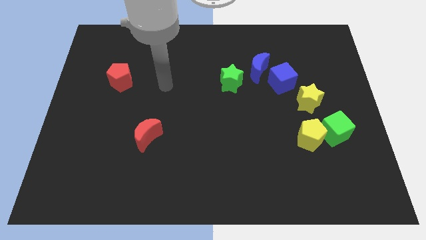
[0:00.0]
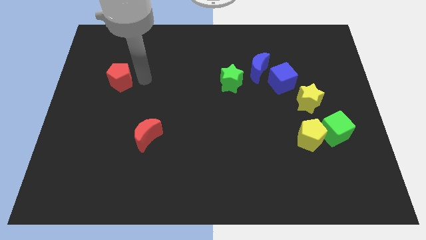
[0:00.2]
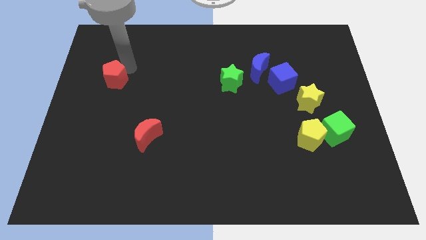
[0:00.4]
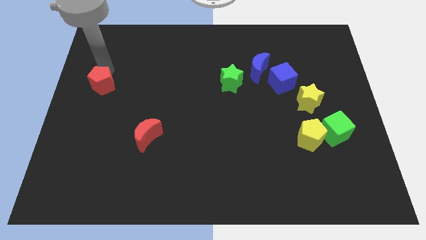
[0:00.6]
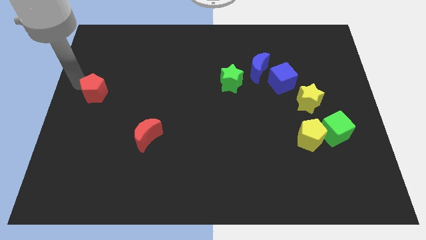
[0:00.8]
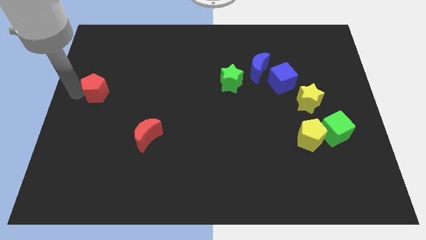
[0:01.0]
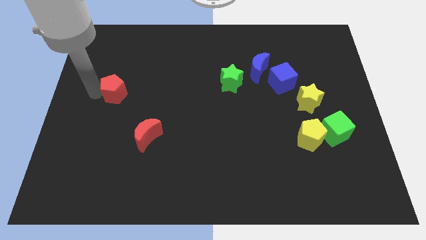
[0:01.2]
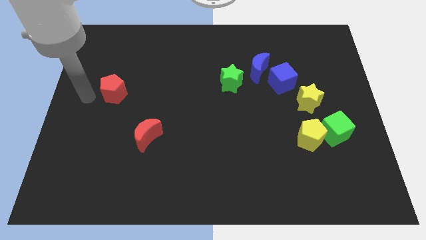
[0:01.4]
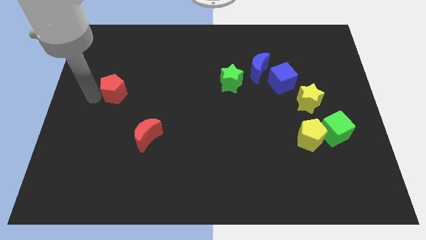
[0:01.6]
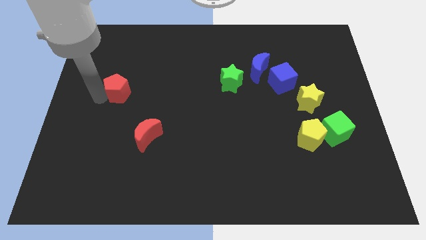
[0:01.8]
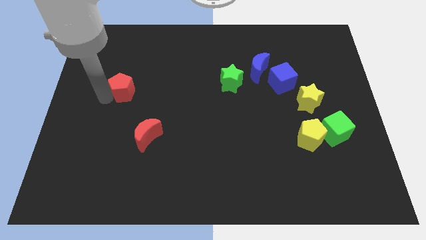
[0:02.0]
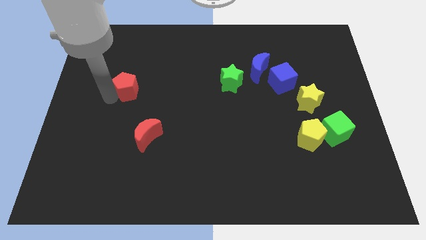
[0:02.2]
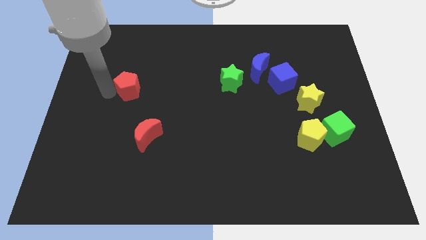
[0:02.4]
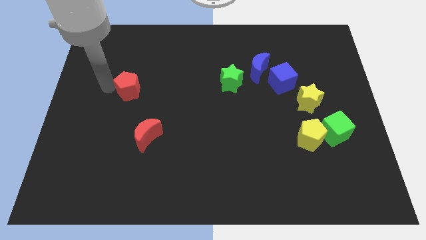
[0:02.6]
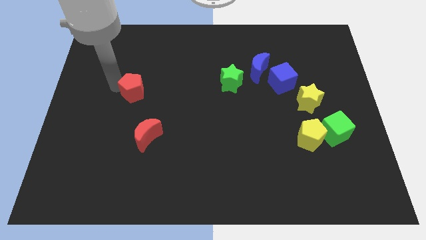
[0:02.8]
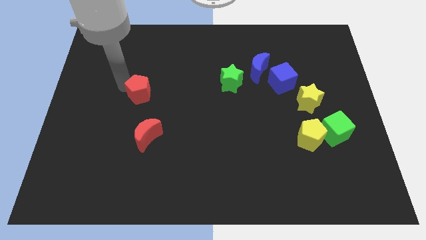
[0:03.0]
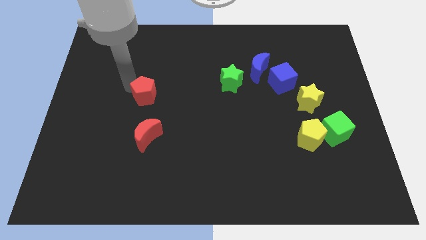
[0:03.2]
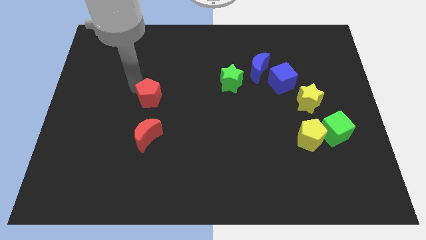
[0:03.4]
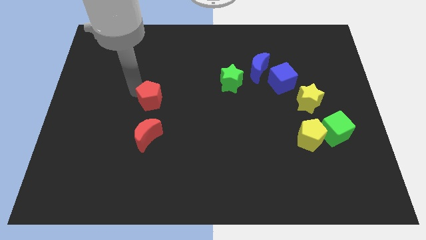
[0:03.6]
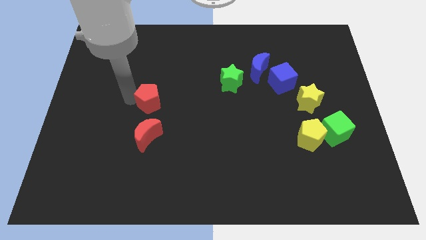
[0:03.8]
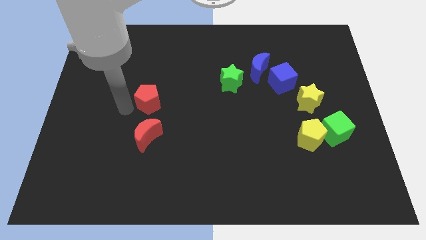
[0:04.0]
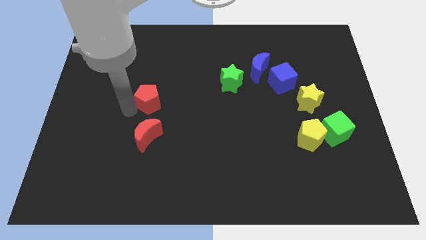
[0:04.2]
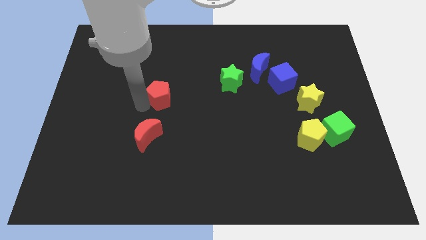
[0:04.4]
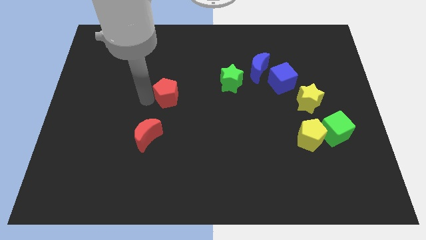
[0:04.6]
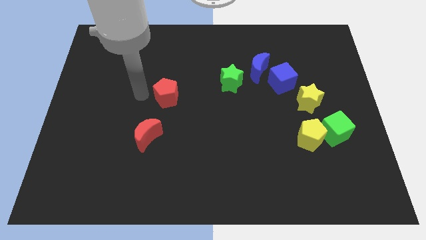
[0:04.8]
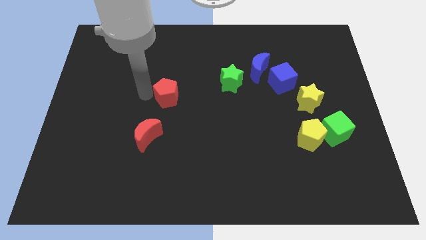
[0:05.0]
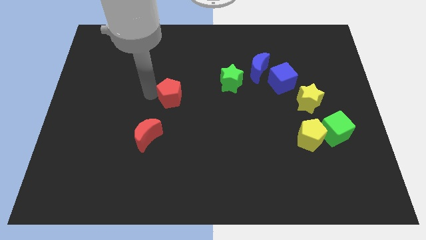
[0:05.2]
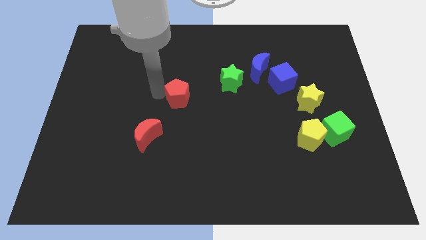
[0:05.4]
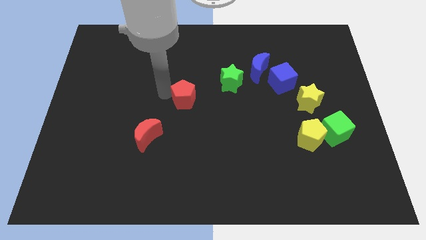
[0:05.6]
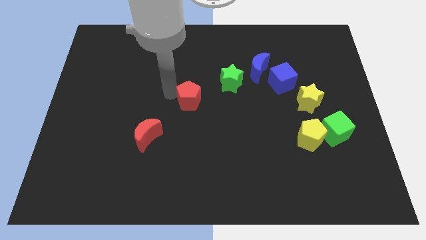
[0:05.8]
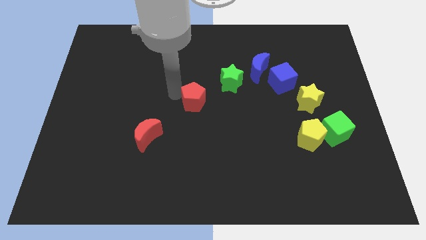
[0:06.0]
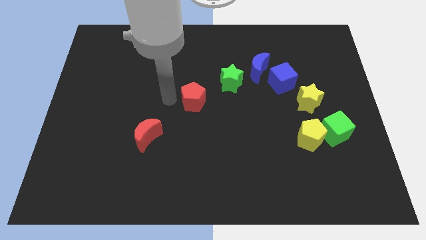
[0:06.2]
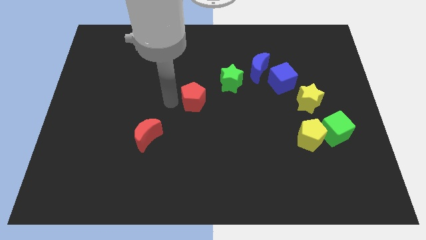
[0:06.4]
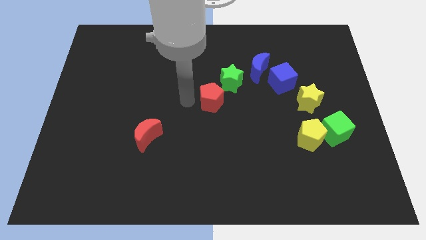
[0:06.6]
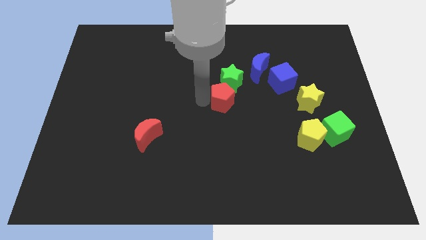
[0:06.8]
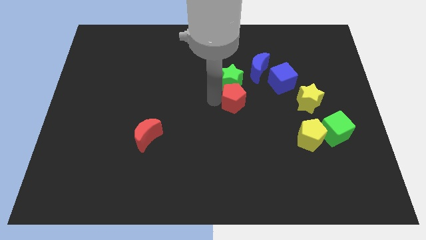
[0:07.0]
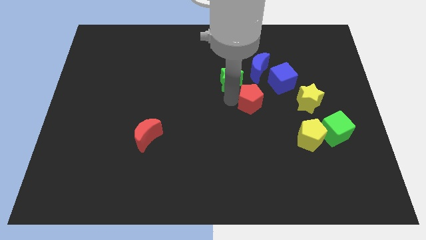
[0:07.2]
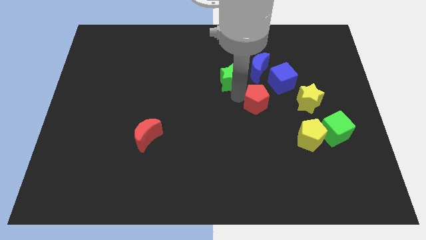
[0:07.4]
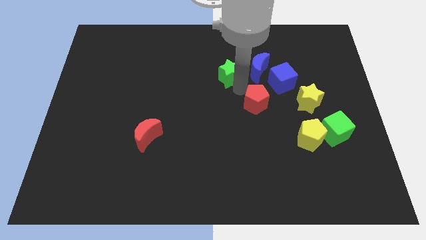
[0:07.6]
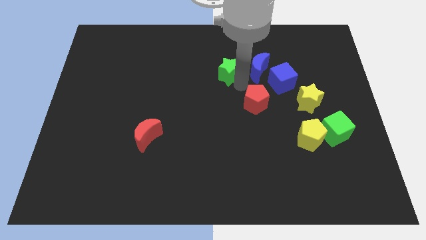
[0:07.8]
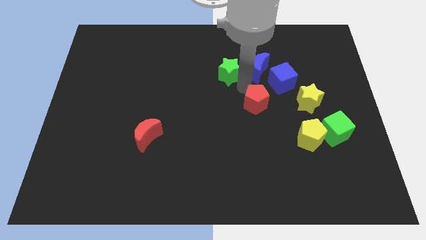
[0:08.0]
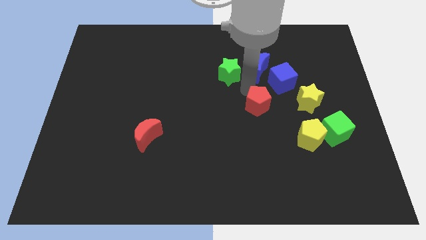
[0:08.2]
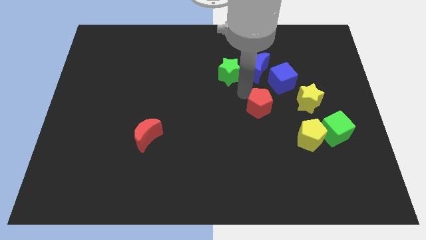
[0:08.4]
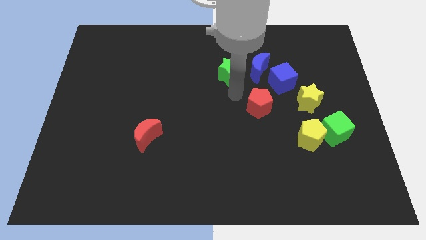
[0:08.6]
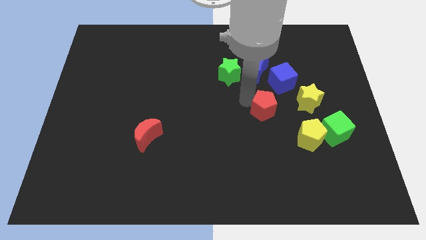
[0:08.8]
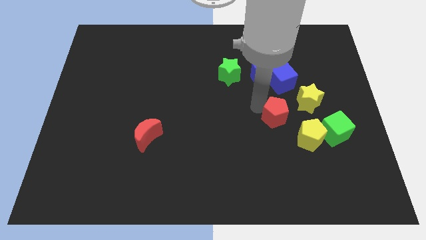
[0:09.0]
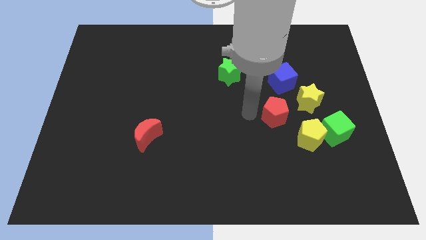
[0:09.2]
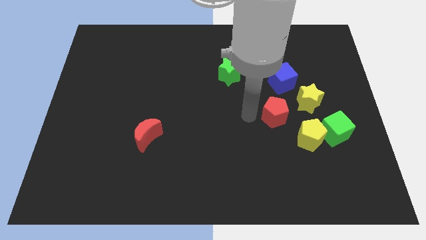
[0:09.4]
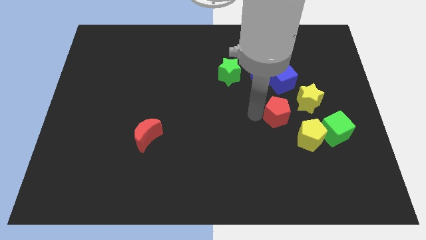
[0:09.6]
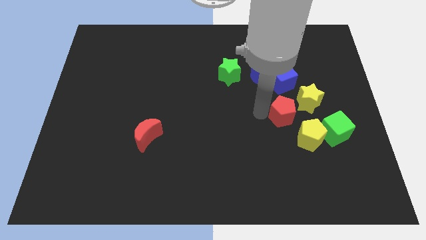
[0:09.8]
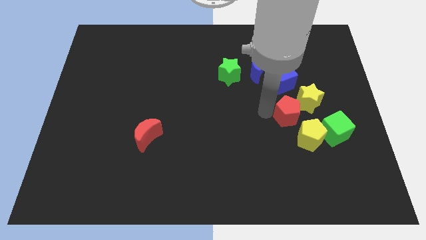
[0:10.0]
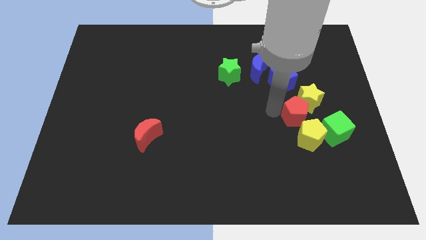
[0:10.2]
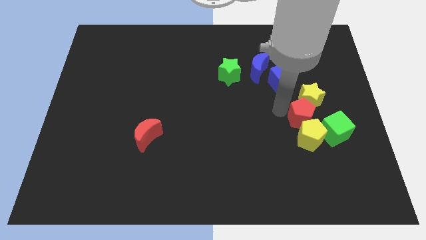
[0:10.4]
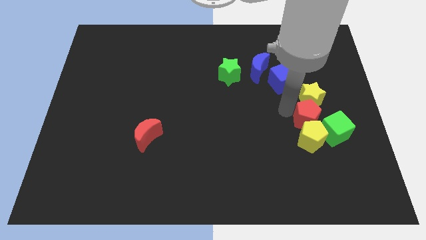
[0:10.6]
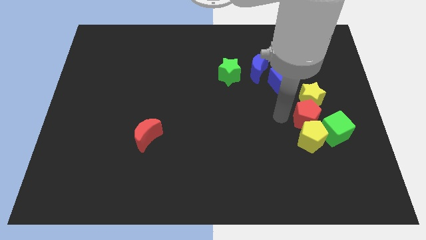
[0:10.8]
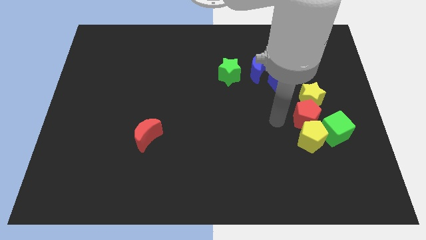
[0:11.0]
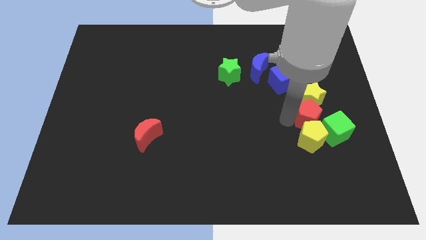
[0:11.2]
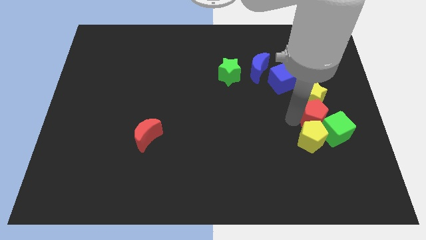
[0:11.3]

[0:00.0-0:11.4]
put the red pentagon towards the green cube

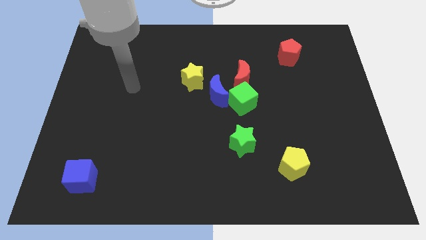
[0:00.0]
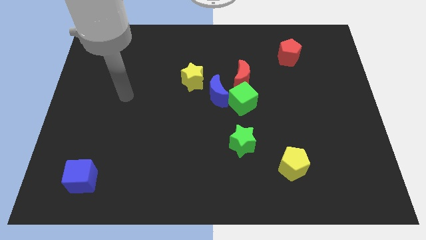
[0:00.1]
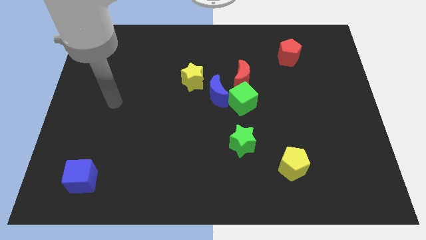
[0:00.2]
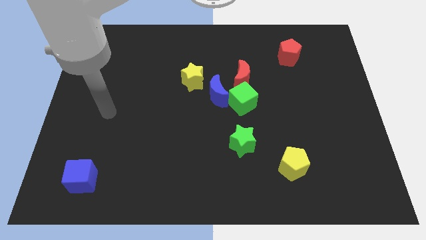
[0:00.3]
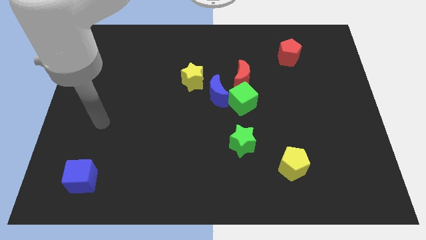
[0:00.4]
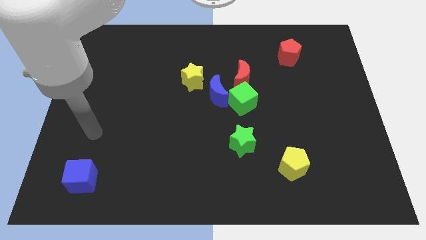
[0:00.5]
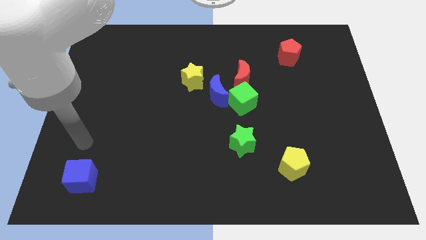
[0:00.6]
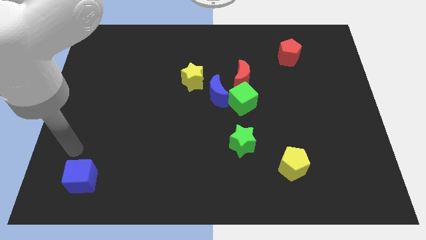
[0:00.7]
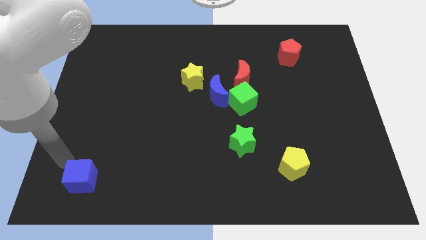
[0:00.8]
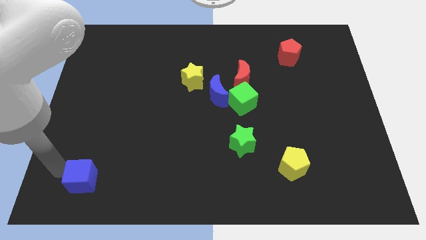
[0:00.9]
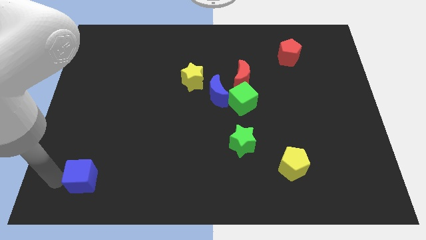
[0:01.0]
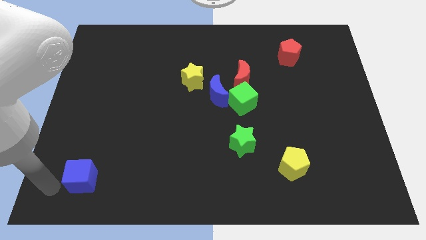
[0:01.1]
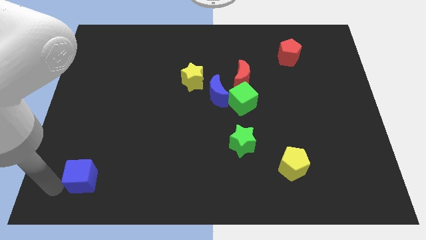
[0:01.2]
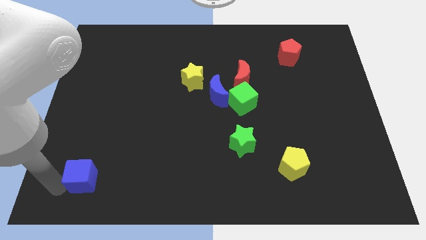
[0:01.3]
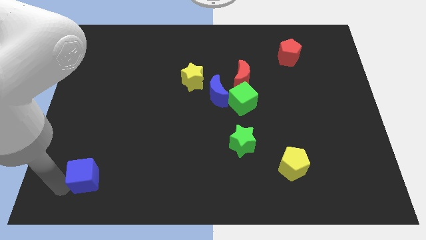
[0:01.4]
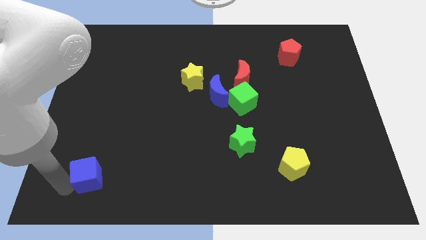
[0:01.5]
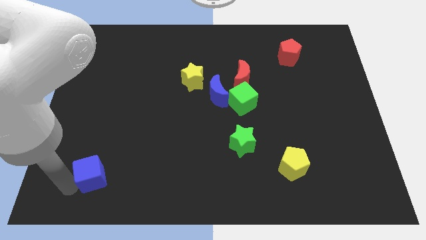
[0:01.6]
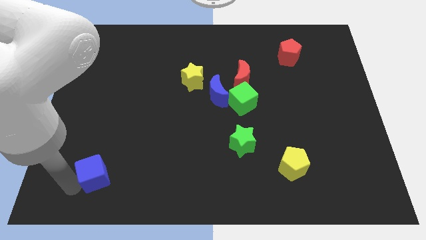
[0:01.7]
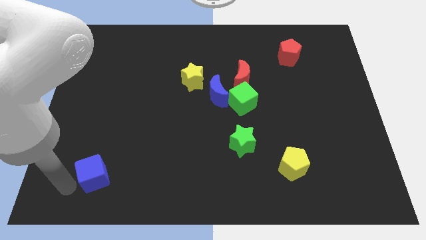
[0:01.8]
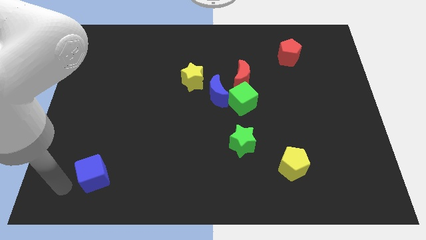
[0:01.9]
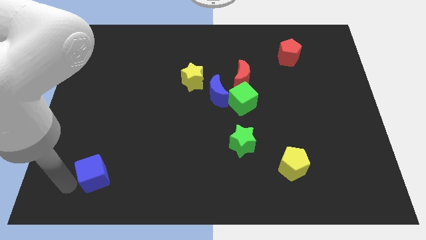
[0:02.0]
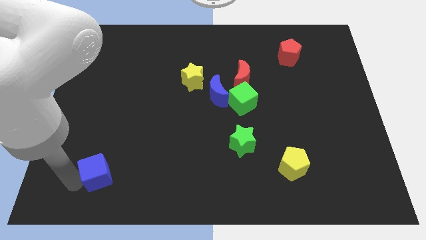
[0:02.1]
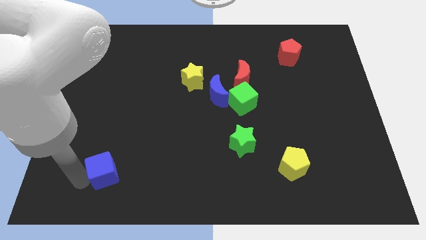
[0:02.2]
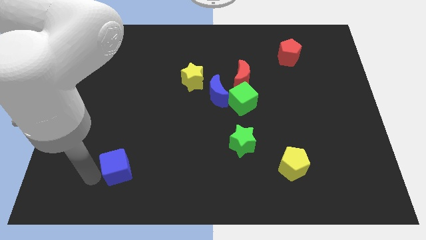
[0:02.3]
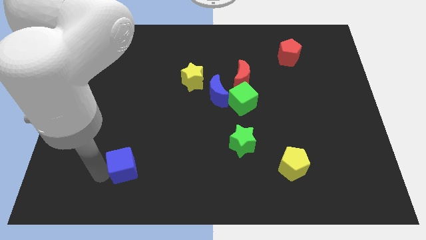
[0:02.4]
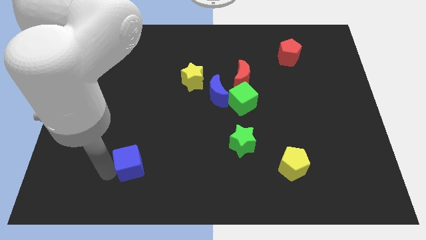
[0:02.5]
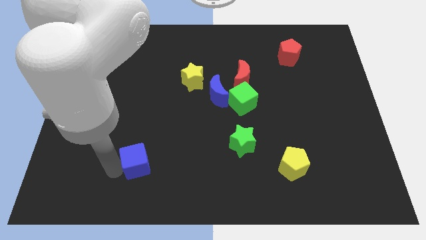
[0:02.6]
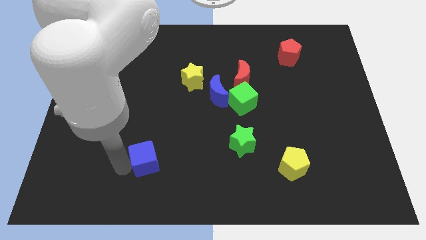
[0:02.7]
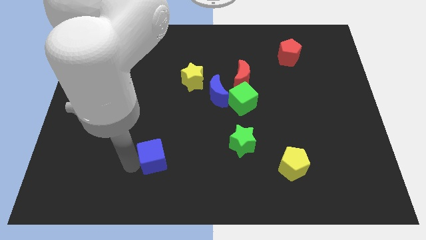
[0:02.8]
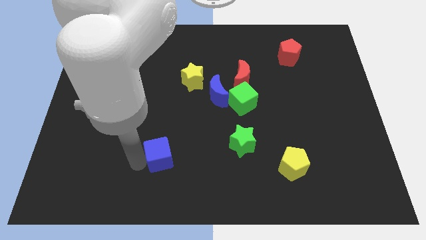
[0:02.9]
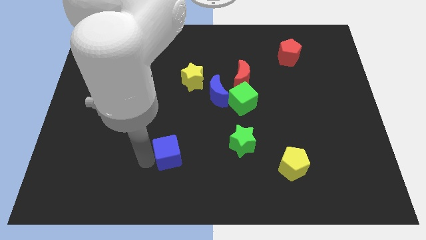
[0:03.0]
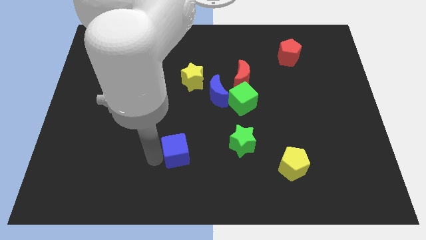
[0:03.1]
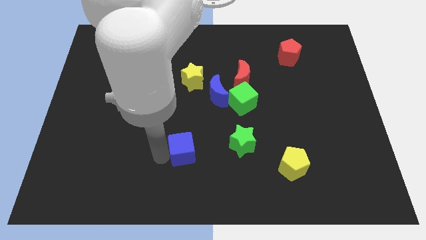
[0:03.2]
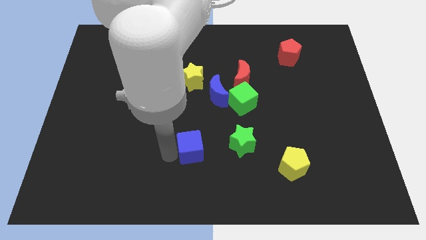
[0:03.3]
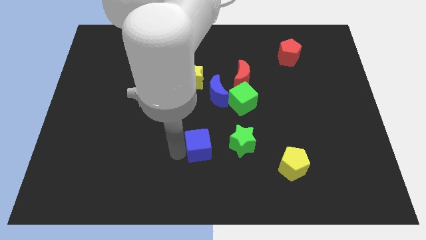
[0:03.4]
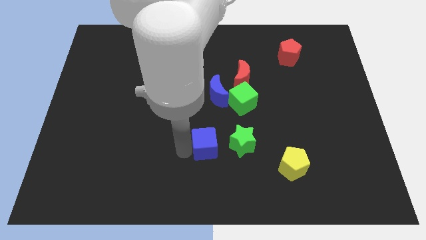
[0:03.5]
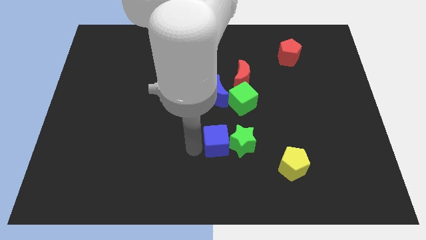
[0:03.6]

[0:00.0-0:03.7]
push the blue cube next to the green star
